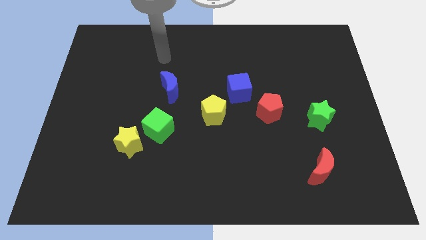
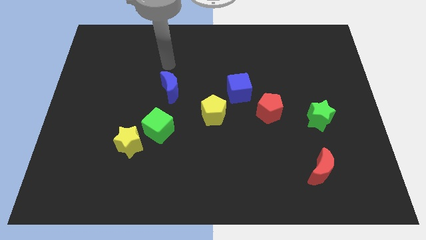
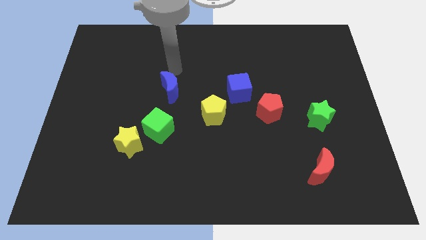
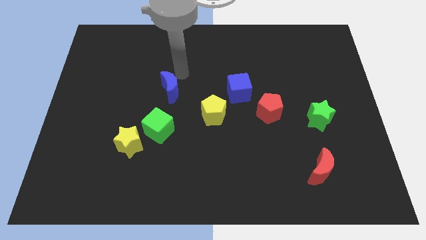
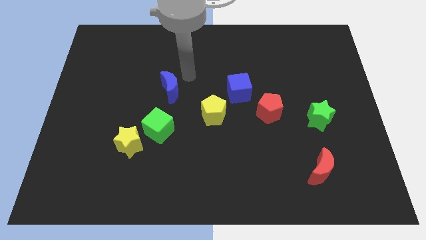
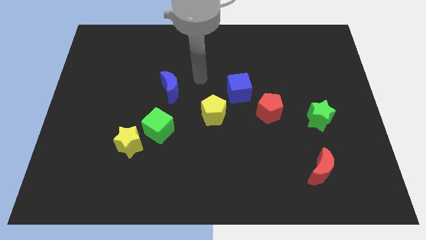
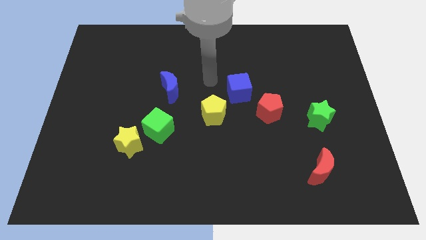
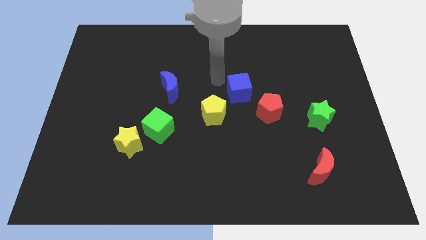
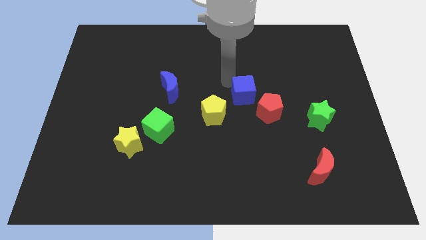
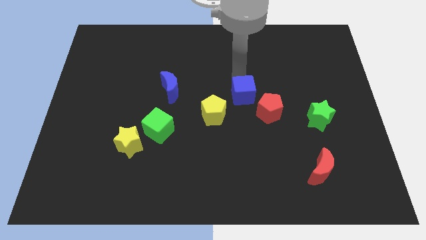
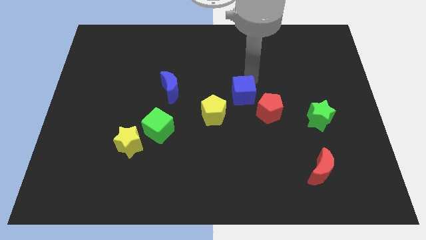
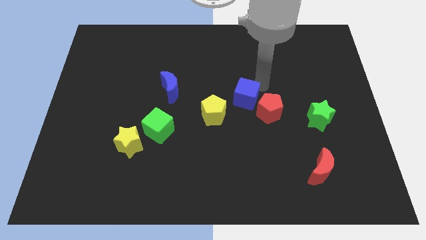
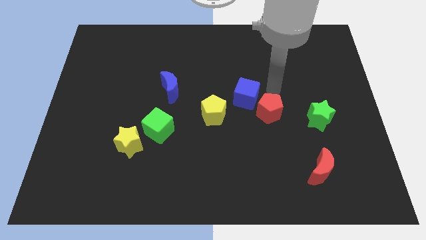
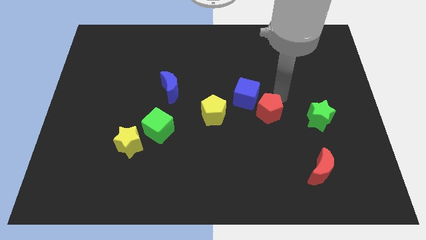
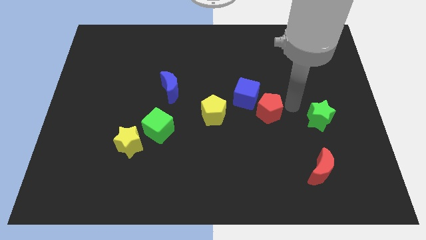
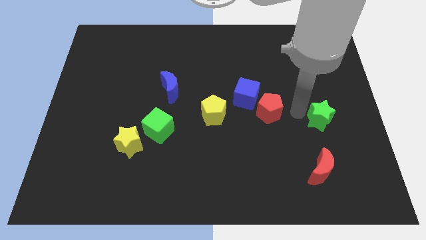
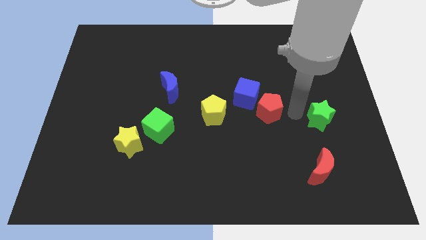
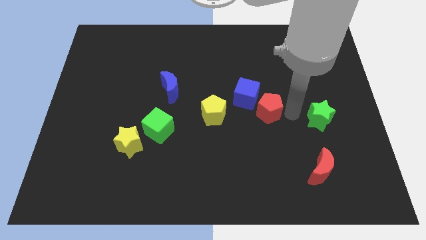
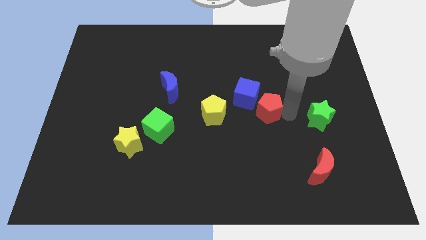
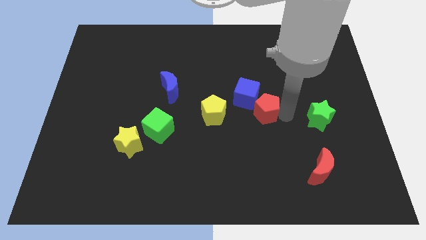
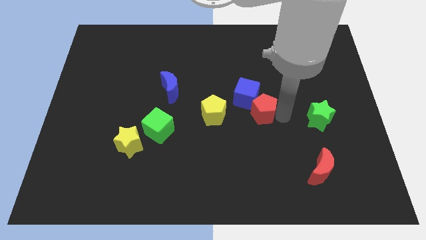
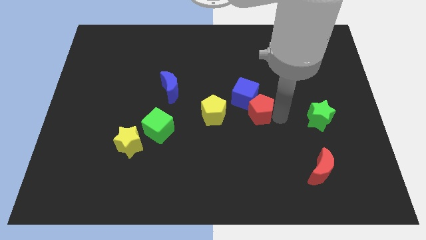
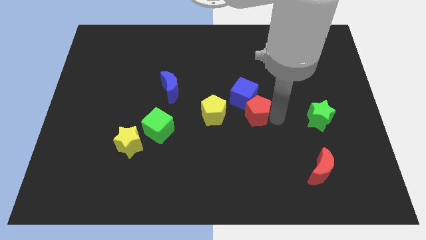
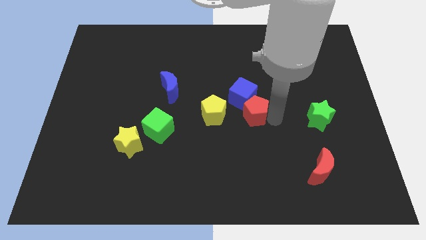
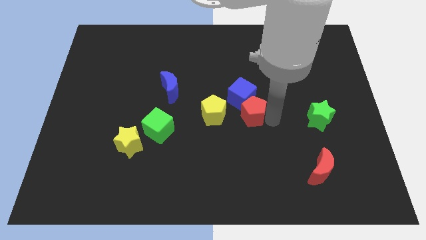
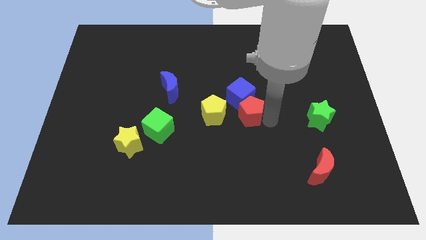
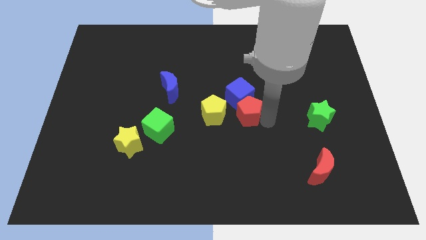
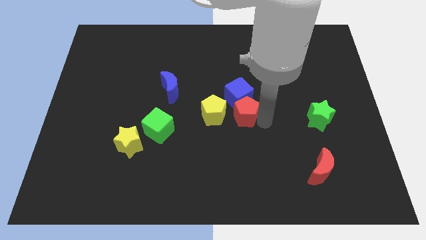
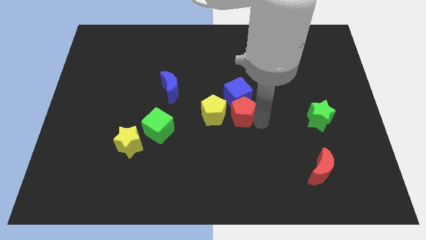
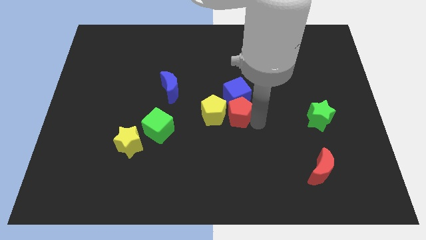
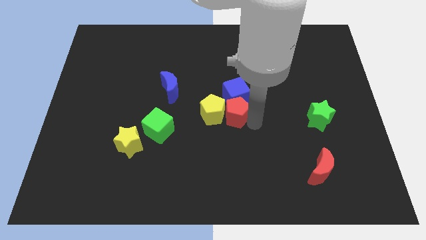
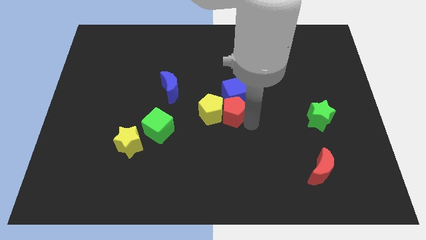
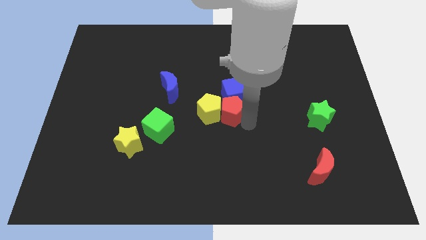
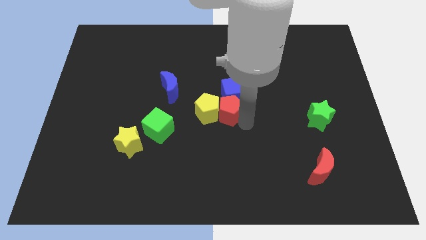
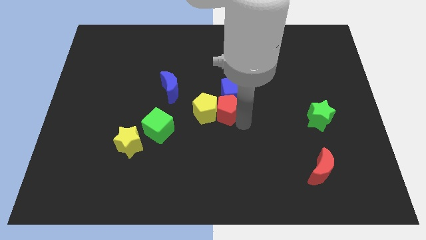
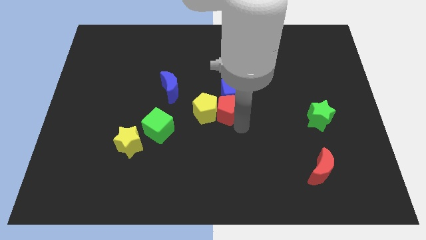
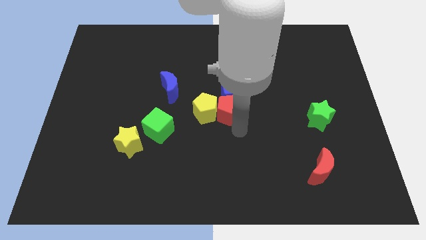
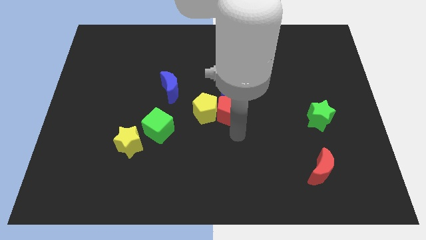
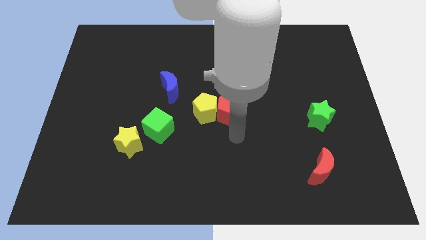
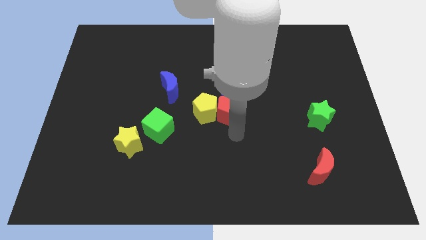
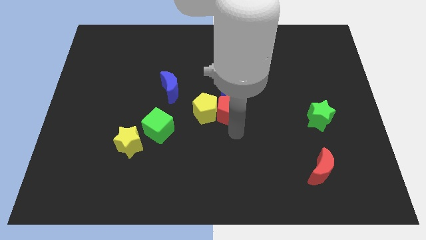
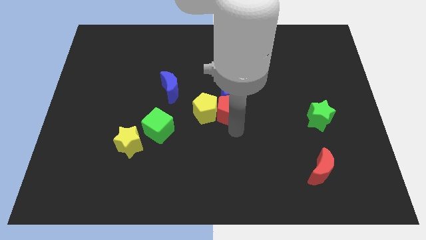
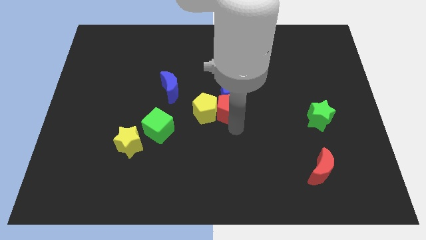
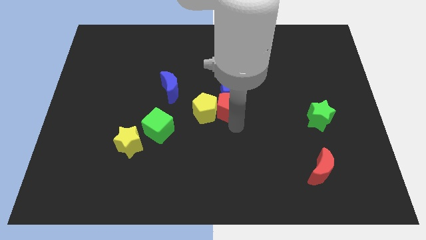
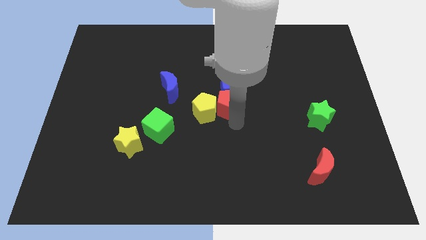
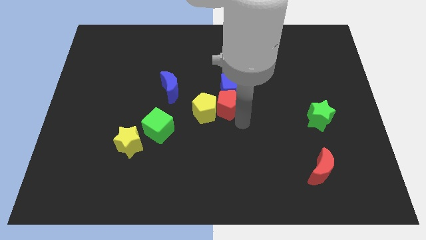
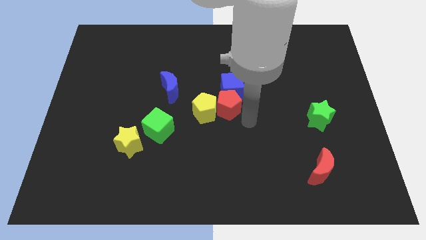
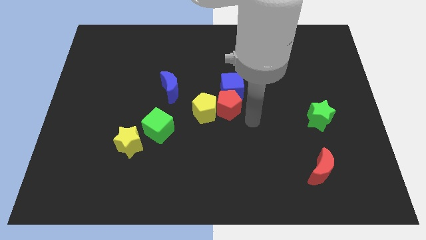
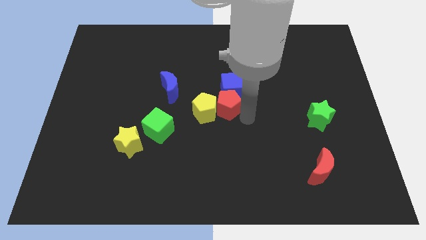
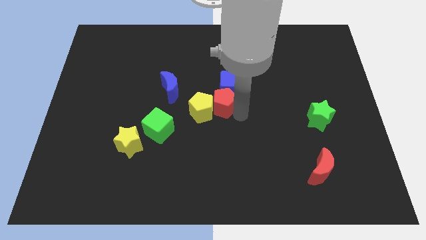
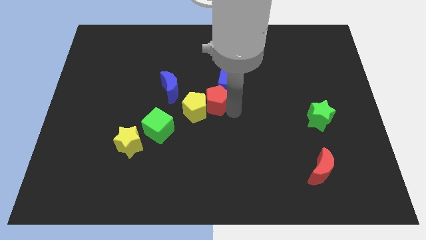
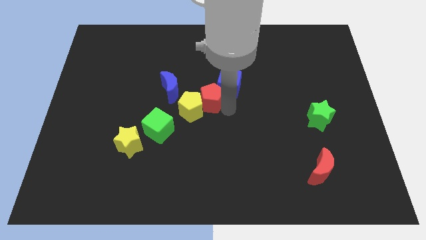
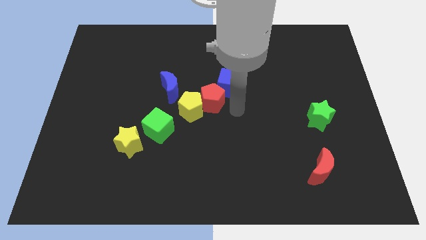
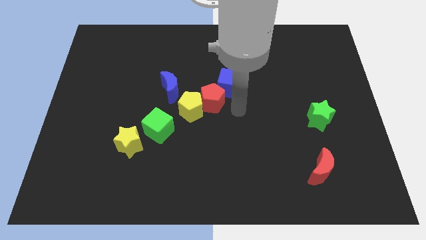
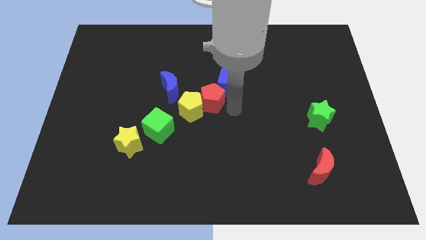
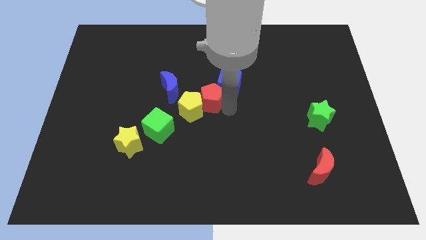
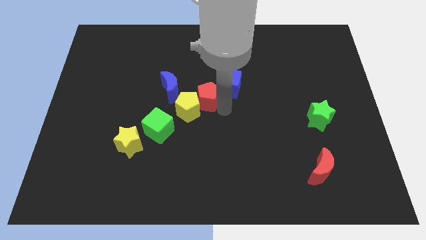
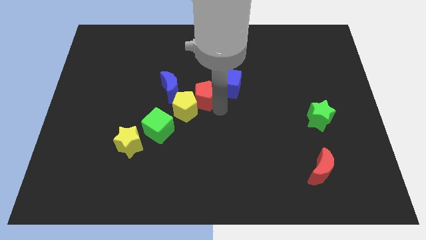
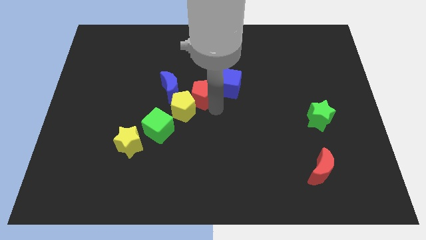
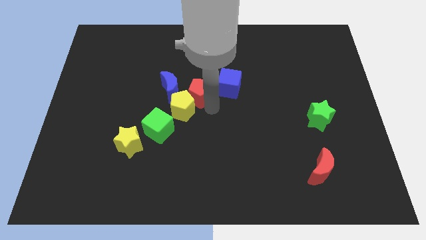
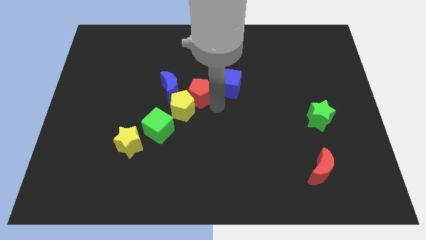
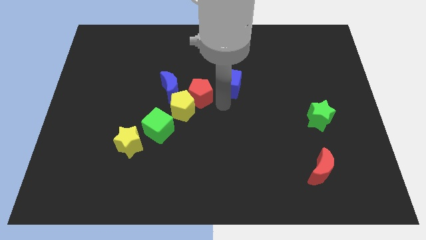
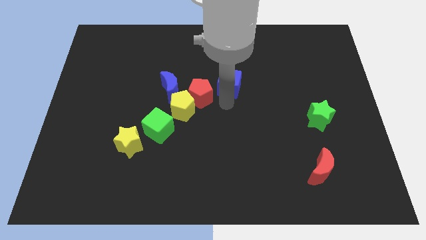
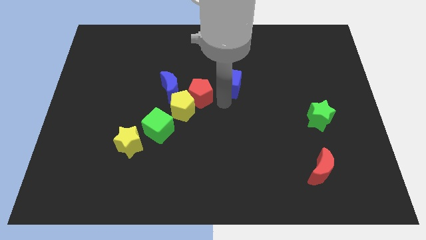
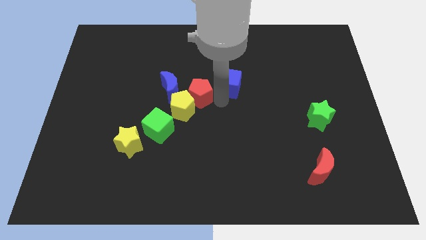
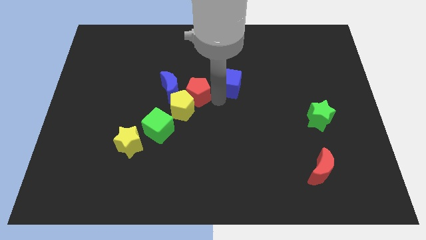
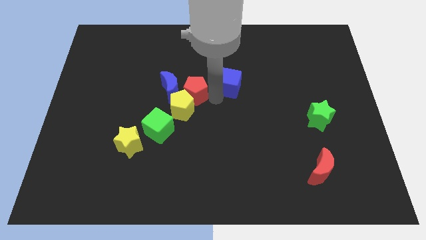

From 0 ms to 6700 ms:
slide the red pentagon close to the blue moon
